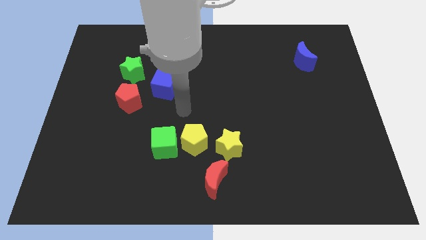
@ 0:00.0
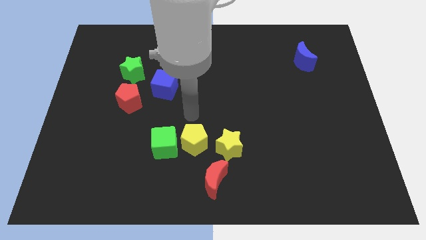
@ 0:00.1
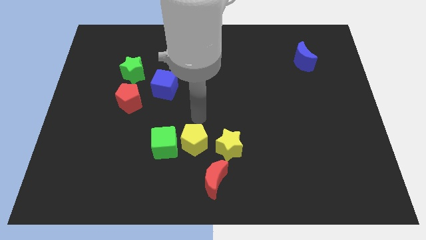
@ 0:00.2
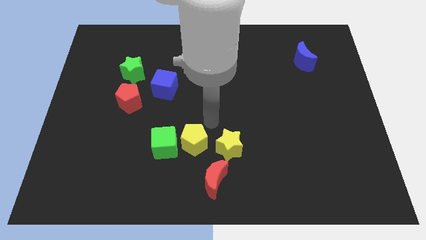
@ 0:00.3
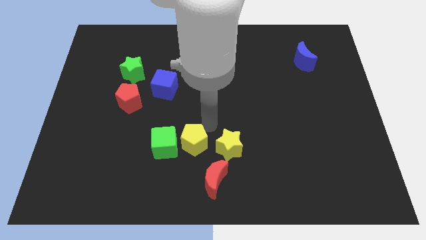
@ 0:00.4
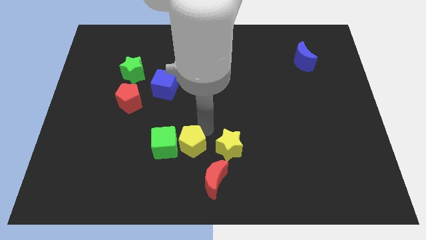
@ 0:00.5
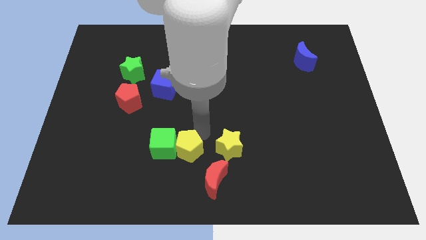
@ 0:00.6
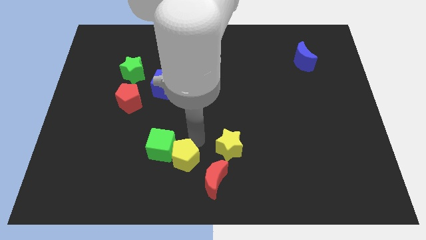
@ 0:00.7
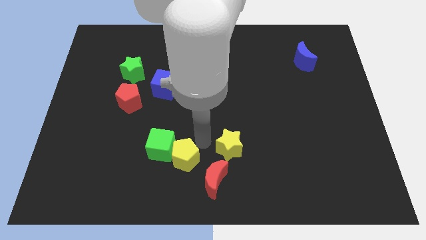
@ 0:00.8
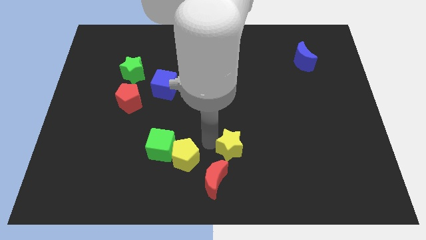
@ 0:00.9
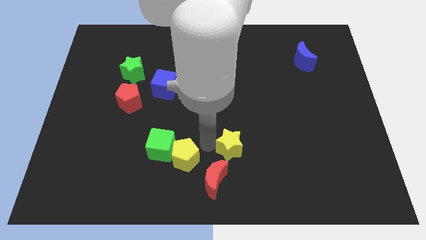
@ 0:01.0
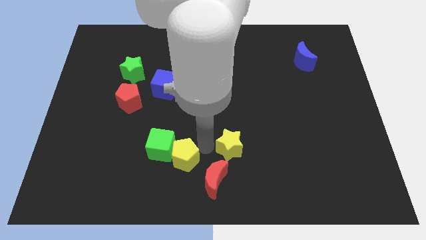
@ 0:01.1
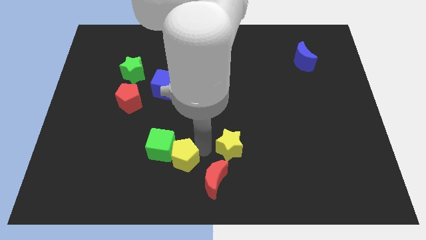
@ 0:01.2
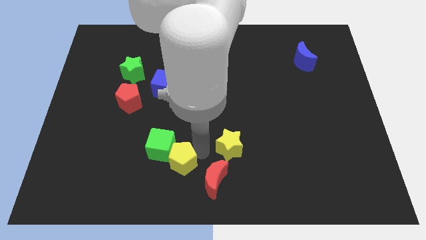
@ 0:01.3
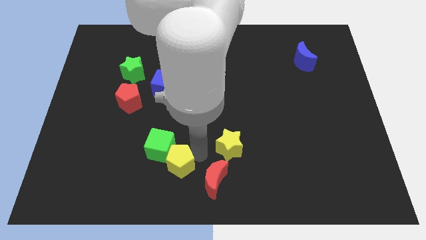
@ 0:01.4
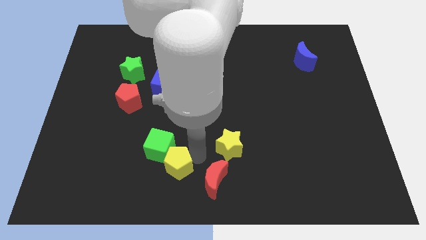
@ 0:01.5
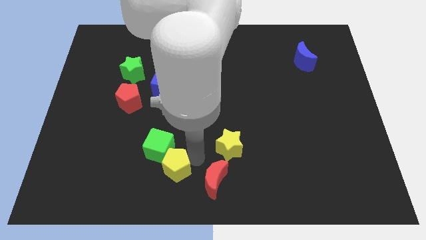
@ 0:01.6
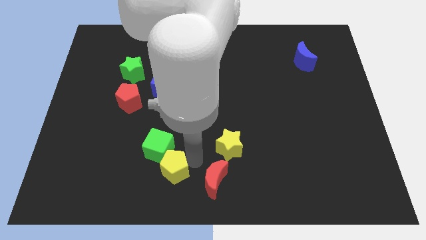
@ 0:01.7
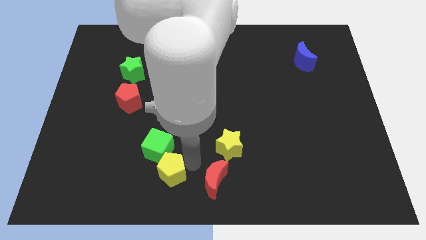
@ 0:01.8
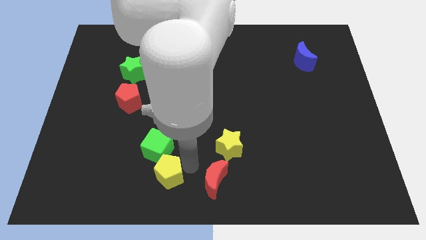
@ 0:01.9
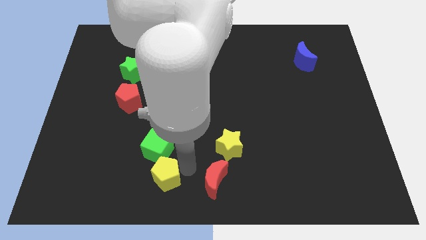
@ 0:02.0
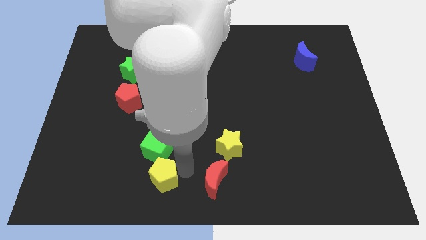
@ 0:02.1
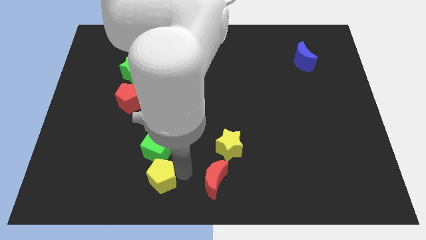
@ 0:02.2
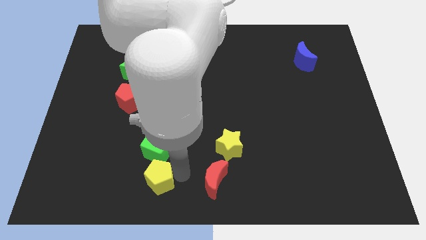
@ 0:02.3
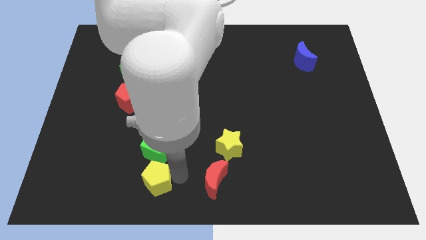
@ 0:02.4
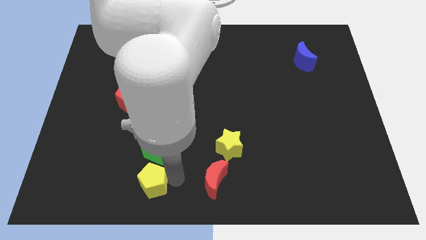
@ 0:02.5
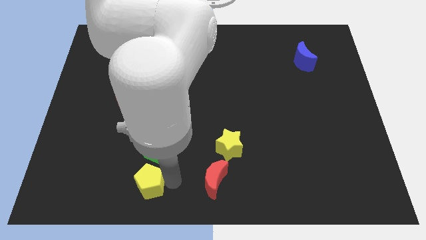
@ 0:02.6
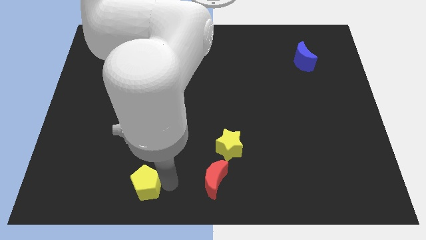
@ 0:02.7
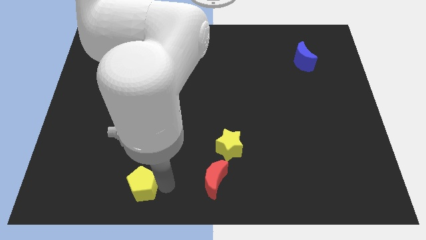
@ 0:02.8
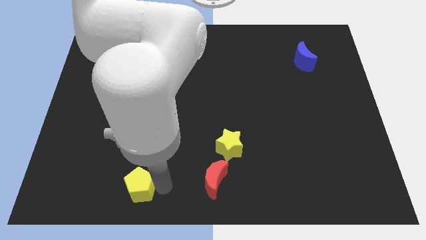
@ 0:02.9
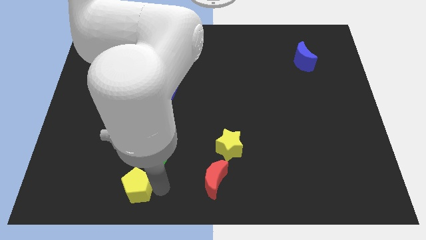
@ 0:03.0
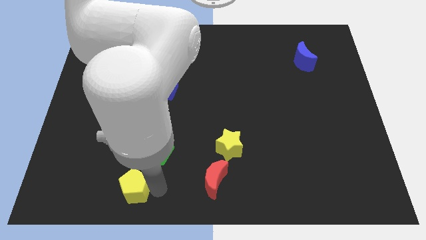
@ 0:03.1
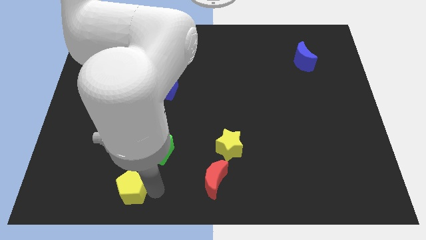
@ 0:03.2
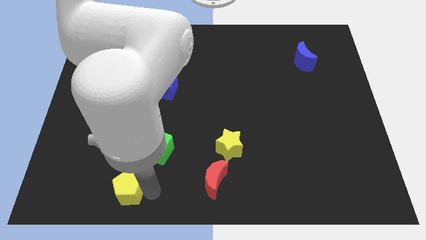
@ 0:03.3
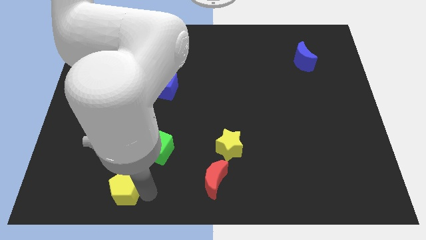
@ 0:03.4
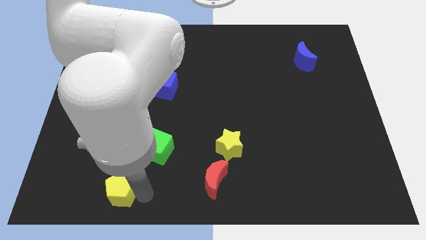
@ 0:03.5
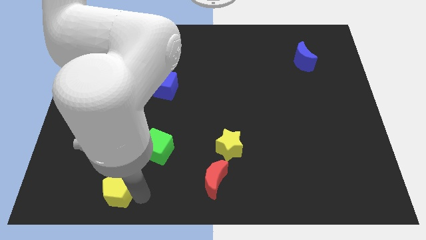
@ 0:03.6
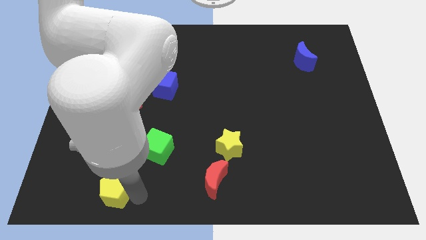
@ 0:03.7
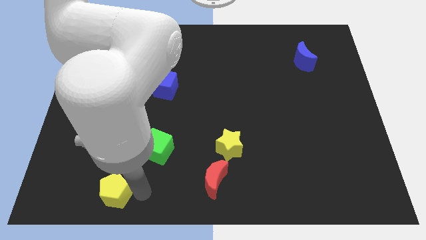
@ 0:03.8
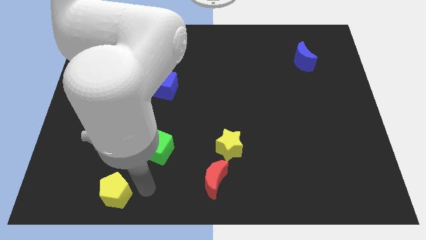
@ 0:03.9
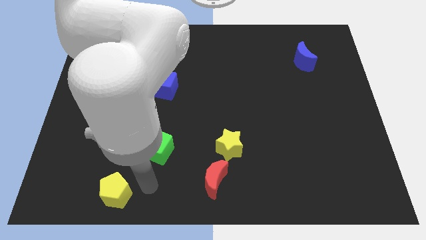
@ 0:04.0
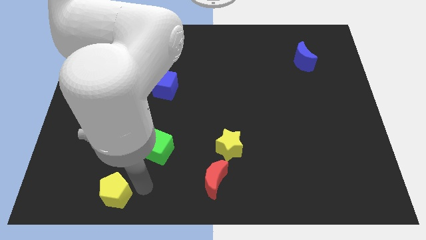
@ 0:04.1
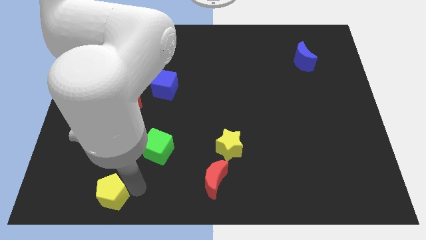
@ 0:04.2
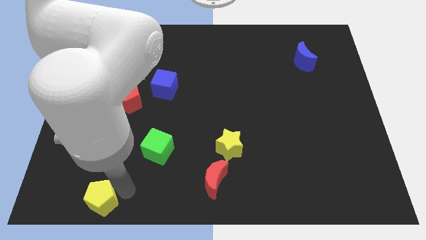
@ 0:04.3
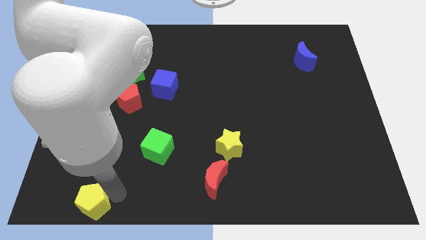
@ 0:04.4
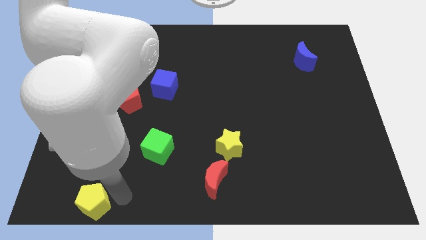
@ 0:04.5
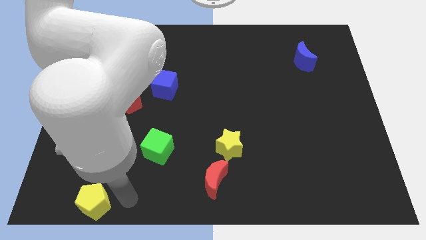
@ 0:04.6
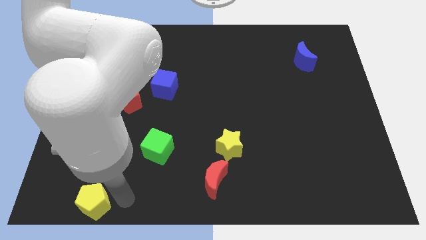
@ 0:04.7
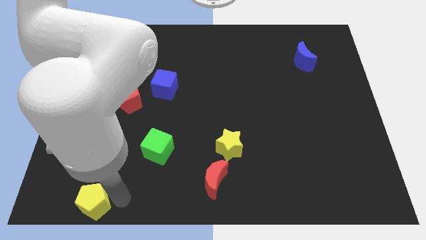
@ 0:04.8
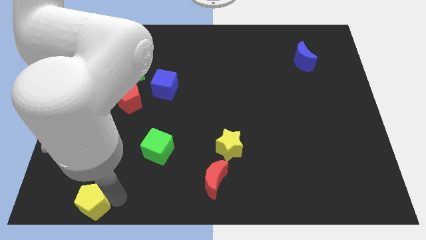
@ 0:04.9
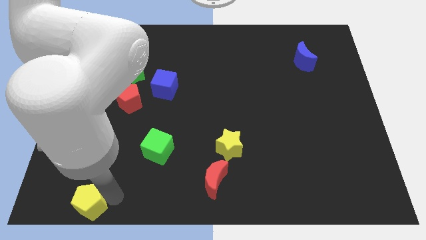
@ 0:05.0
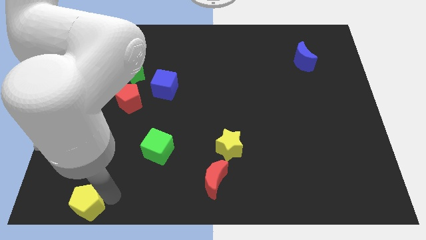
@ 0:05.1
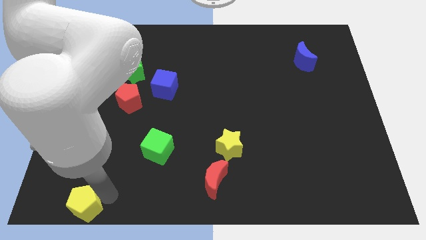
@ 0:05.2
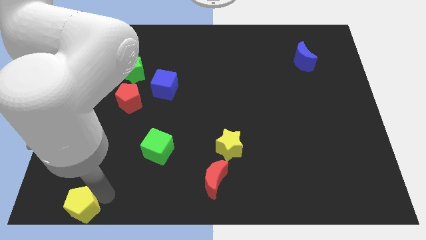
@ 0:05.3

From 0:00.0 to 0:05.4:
move the yellow pentagon to the lower left corner

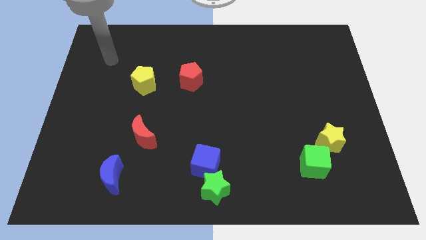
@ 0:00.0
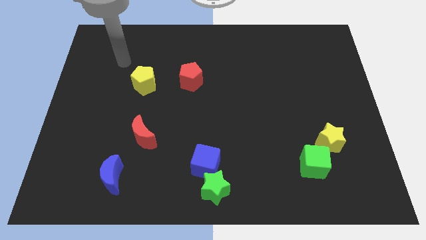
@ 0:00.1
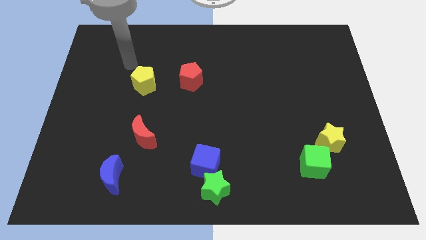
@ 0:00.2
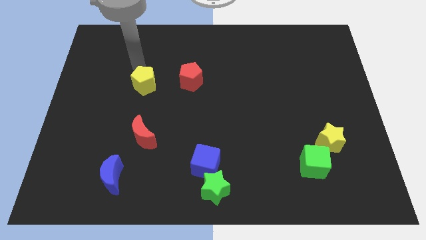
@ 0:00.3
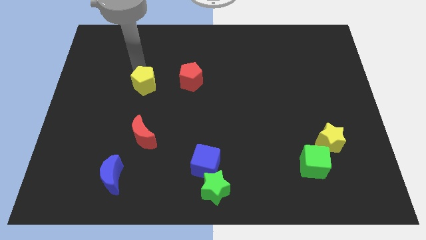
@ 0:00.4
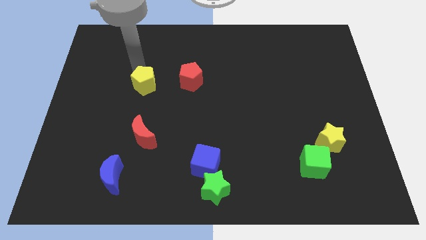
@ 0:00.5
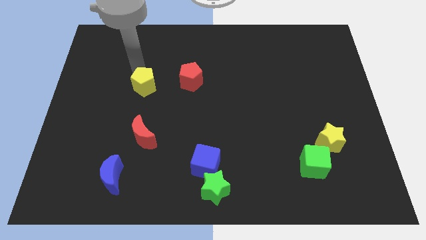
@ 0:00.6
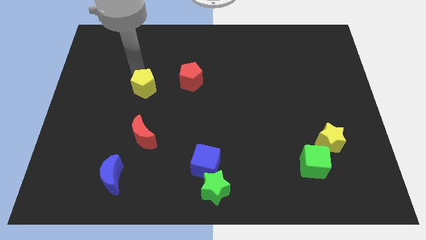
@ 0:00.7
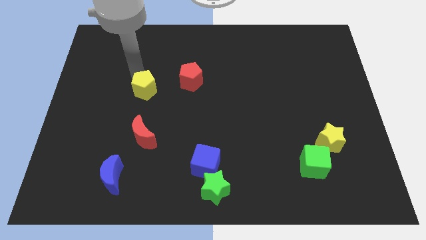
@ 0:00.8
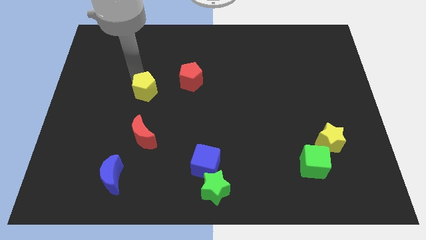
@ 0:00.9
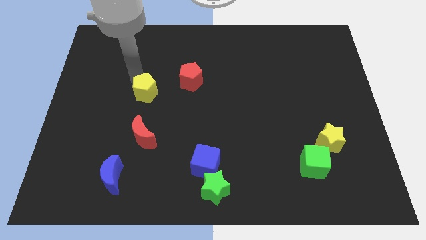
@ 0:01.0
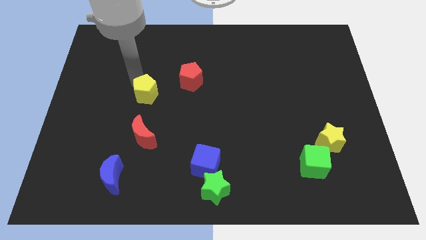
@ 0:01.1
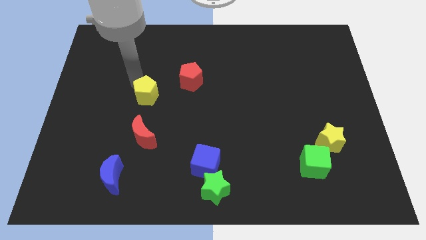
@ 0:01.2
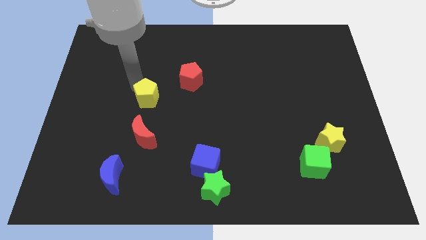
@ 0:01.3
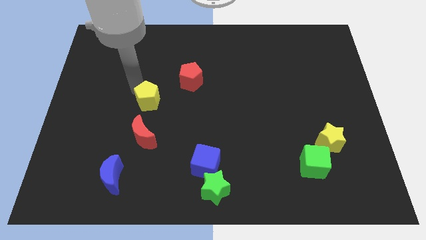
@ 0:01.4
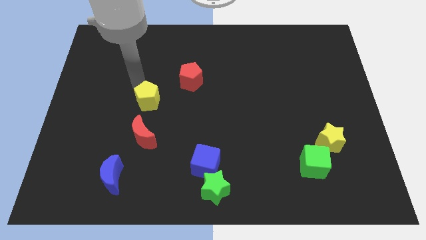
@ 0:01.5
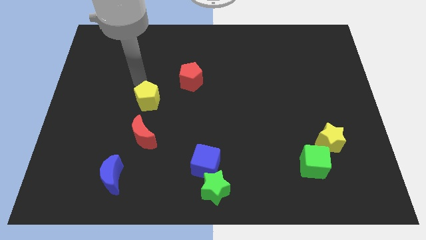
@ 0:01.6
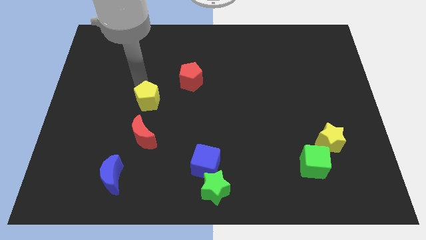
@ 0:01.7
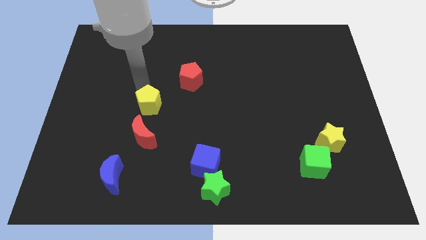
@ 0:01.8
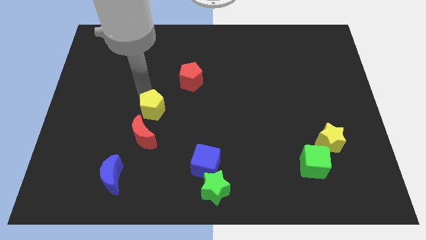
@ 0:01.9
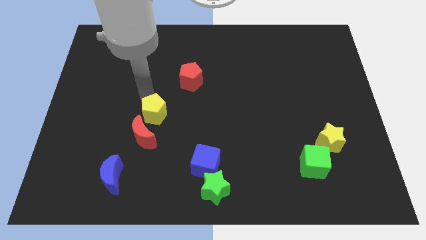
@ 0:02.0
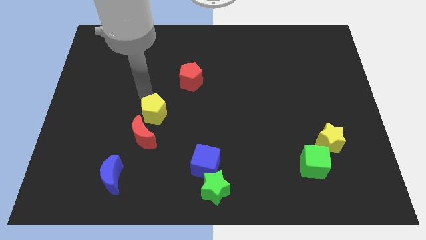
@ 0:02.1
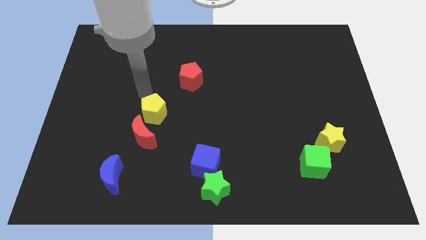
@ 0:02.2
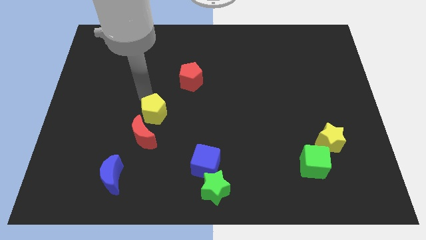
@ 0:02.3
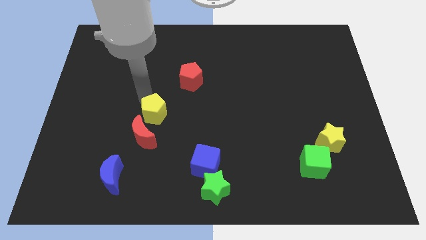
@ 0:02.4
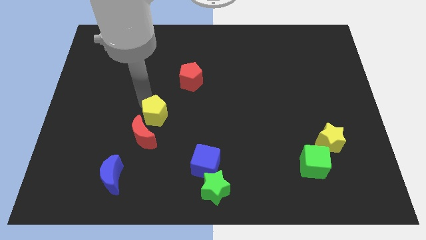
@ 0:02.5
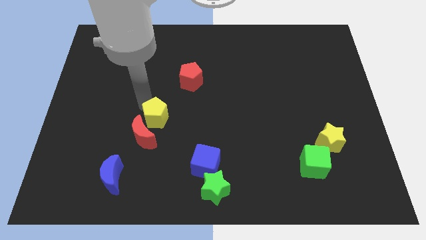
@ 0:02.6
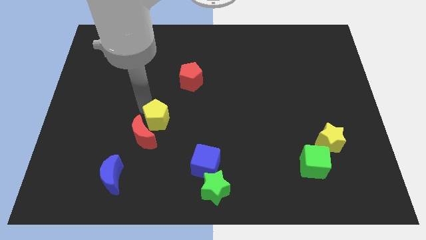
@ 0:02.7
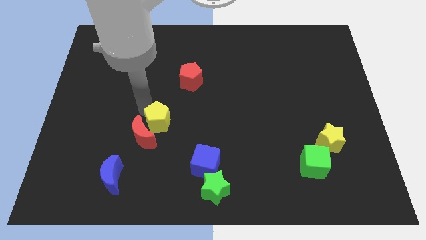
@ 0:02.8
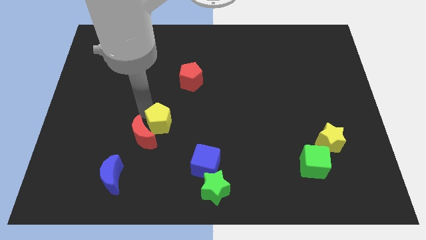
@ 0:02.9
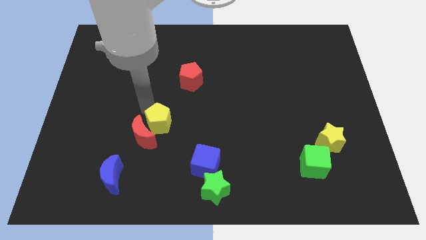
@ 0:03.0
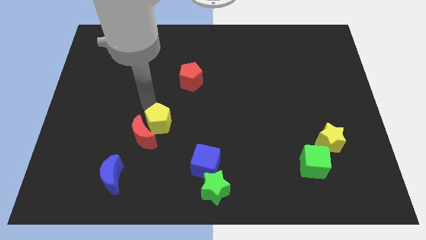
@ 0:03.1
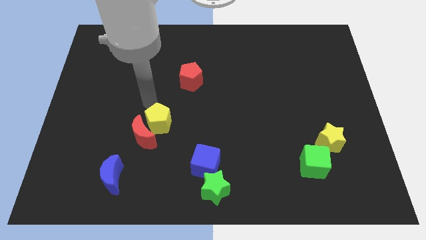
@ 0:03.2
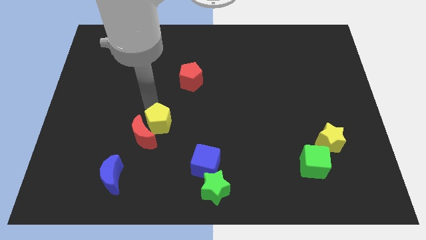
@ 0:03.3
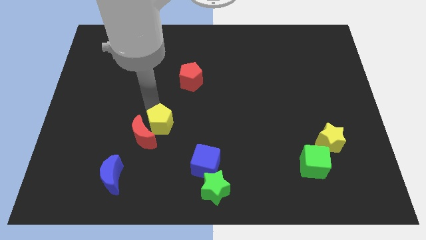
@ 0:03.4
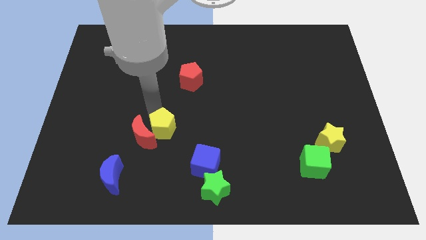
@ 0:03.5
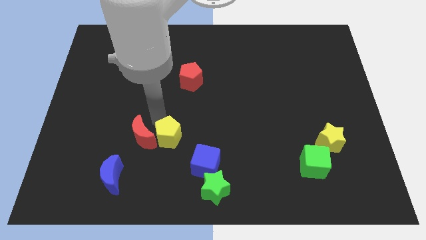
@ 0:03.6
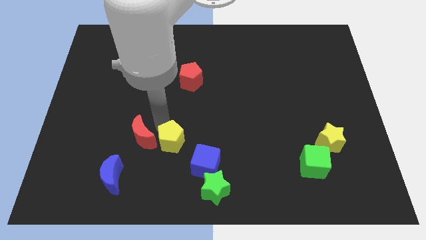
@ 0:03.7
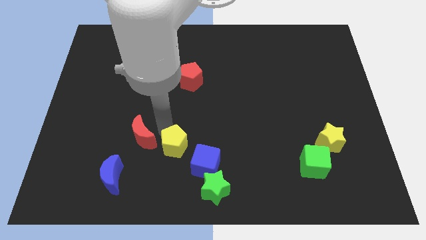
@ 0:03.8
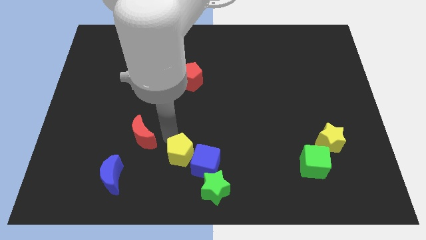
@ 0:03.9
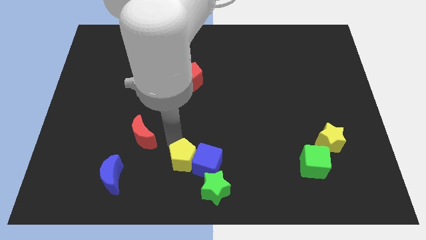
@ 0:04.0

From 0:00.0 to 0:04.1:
slide the yellow pentagon to the bottom
